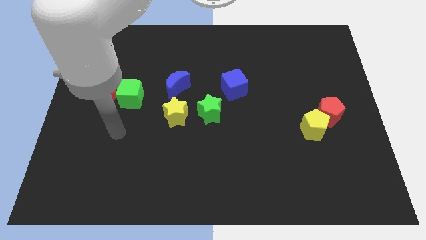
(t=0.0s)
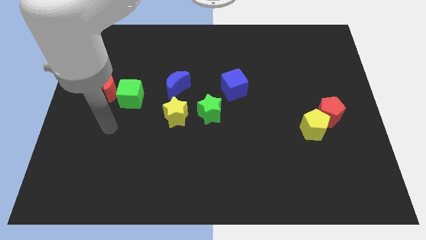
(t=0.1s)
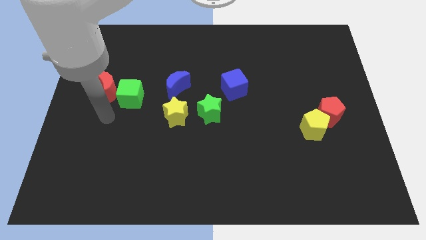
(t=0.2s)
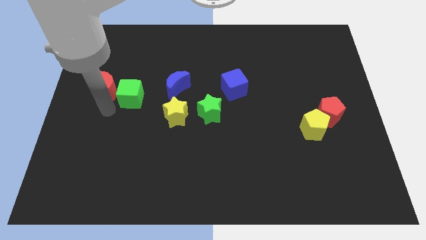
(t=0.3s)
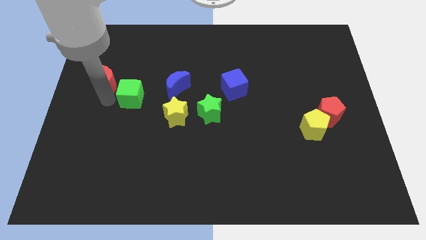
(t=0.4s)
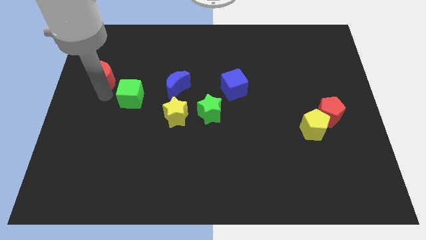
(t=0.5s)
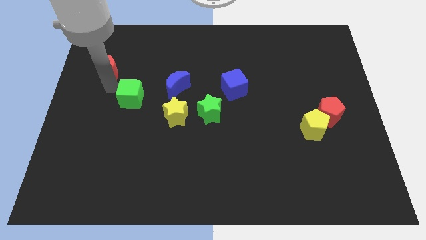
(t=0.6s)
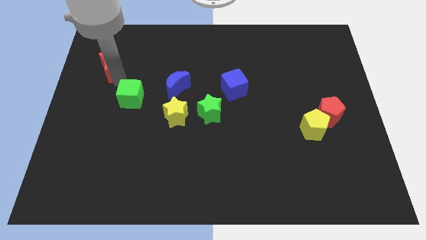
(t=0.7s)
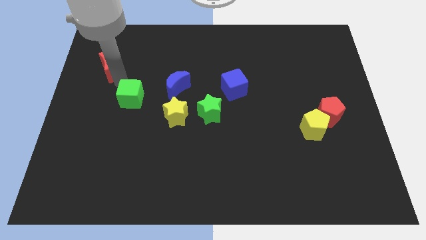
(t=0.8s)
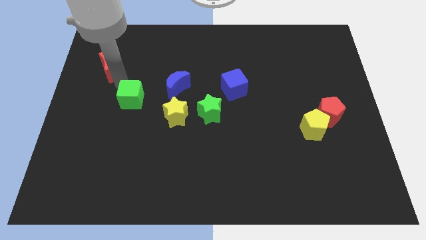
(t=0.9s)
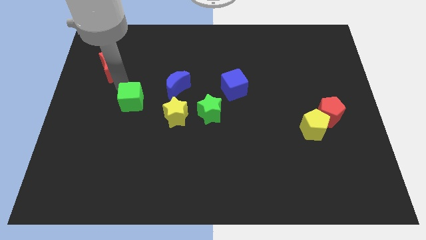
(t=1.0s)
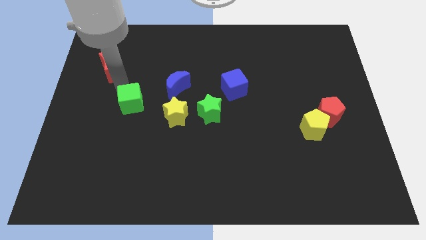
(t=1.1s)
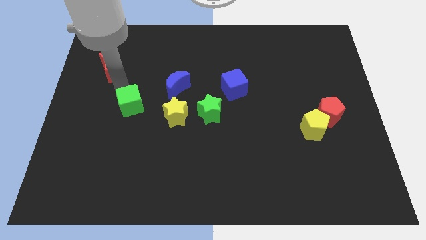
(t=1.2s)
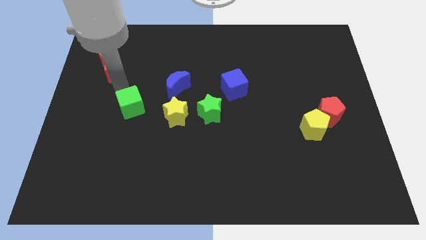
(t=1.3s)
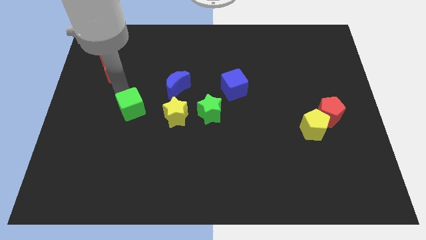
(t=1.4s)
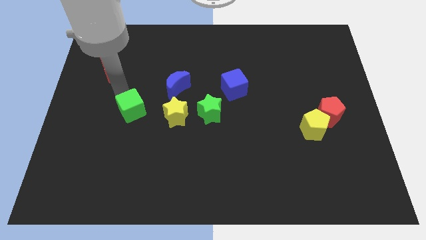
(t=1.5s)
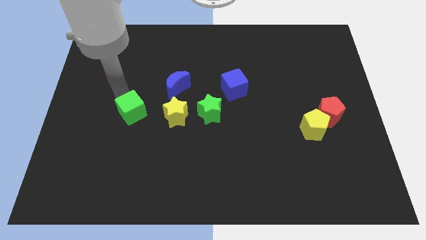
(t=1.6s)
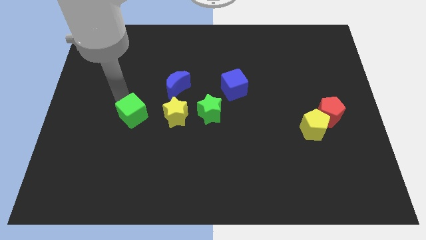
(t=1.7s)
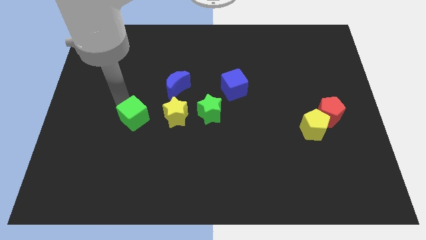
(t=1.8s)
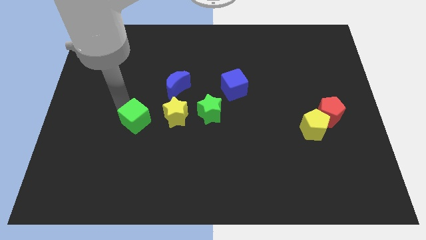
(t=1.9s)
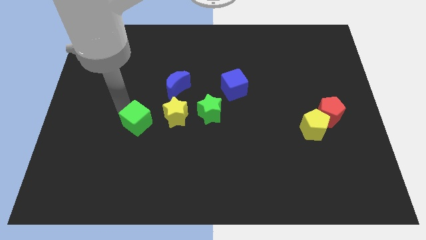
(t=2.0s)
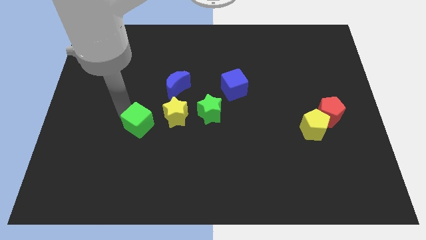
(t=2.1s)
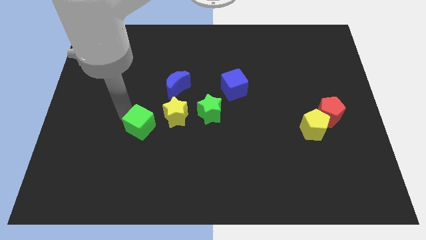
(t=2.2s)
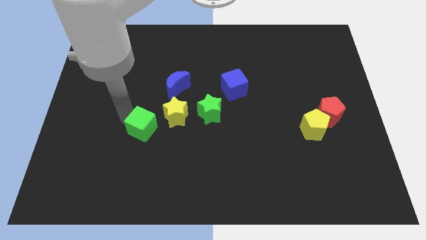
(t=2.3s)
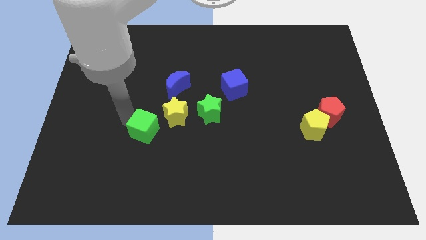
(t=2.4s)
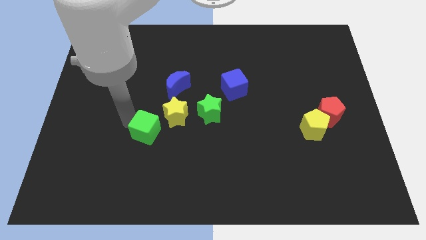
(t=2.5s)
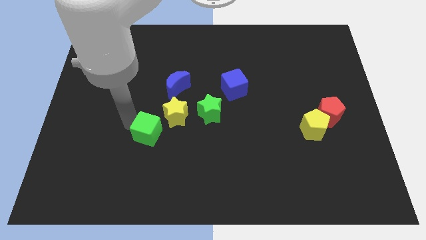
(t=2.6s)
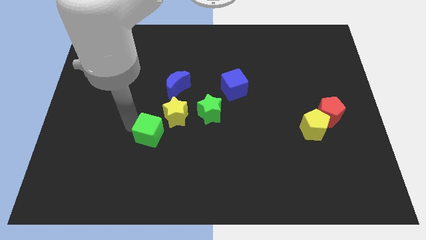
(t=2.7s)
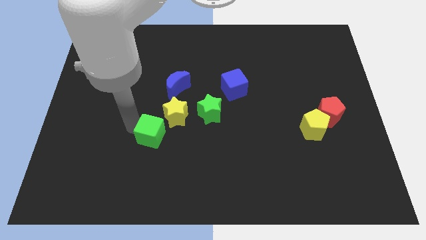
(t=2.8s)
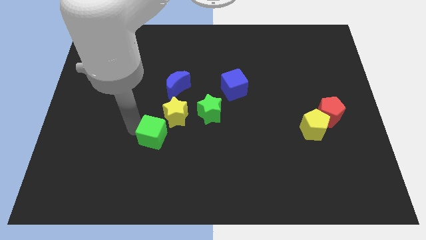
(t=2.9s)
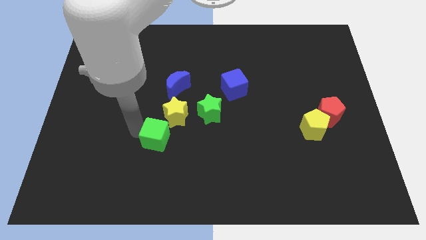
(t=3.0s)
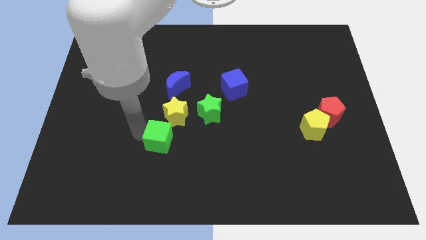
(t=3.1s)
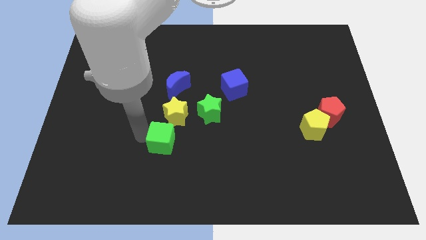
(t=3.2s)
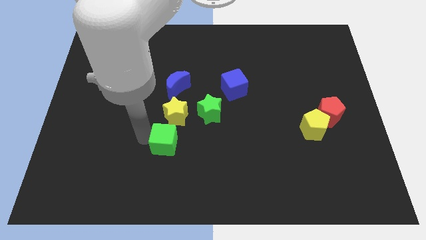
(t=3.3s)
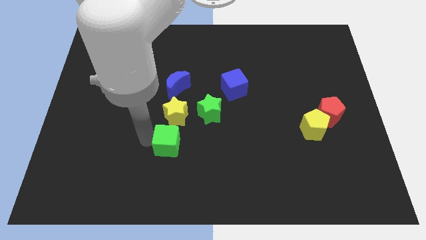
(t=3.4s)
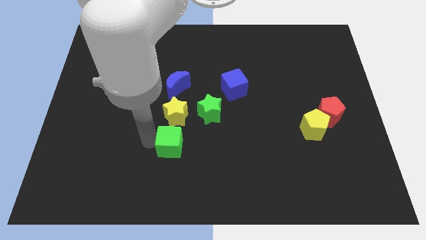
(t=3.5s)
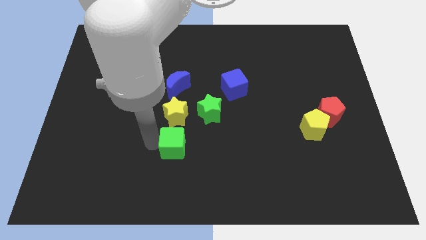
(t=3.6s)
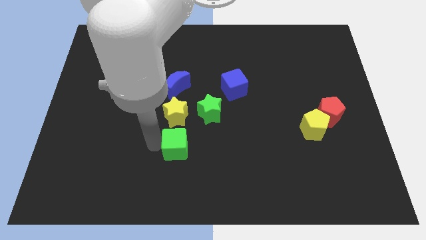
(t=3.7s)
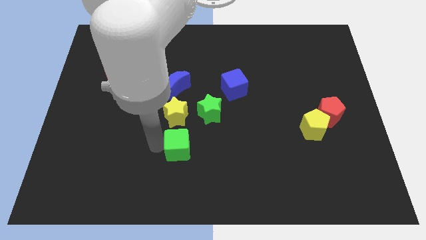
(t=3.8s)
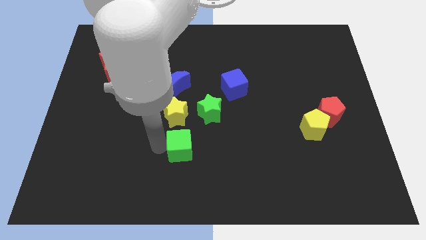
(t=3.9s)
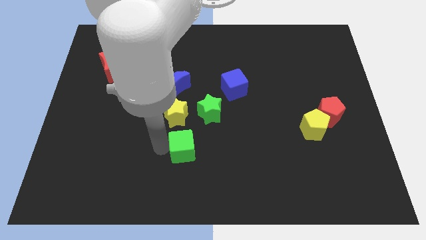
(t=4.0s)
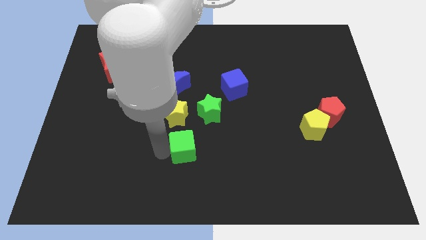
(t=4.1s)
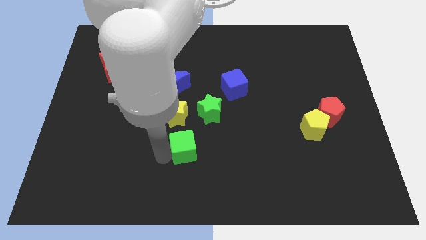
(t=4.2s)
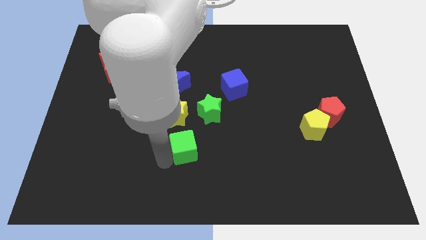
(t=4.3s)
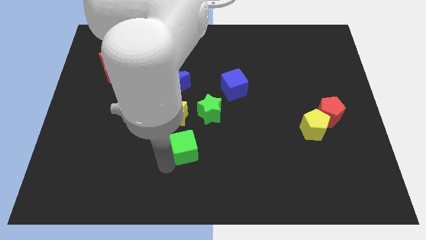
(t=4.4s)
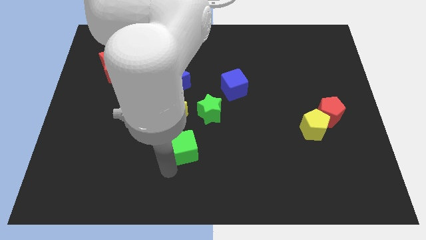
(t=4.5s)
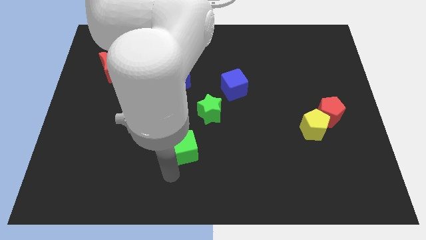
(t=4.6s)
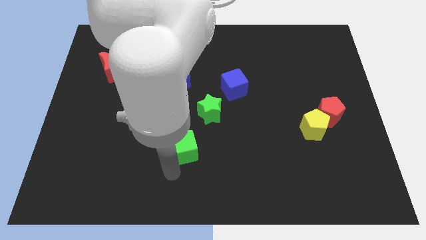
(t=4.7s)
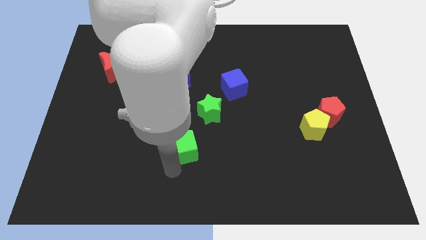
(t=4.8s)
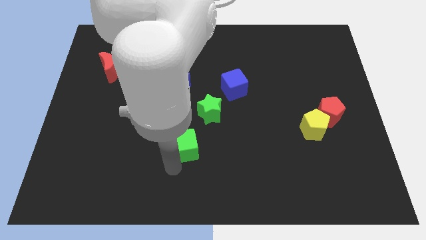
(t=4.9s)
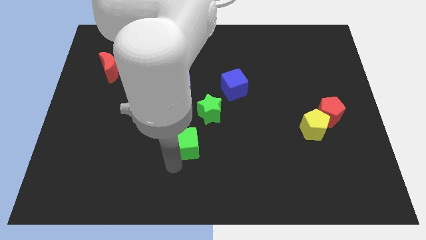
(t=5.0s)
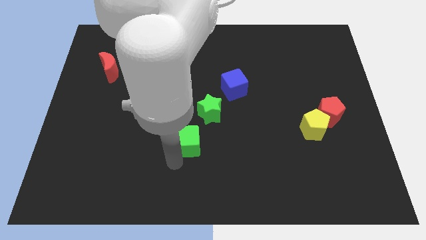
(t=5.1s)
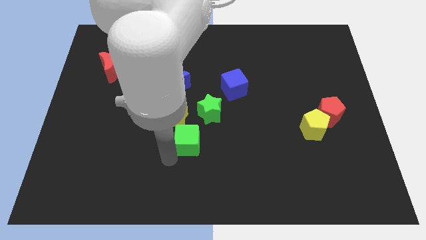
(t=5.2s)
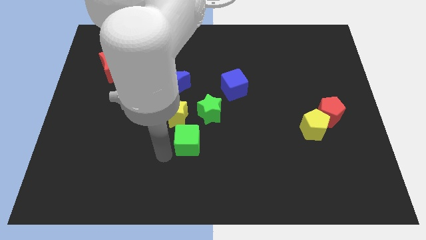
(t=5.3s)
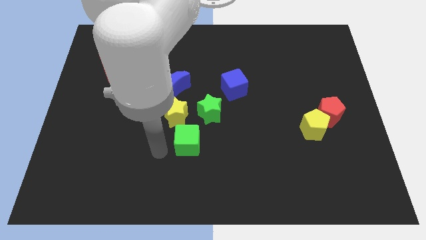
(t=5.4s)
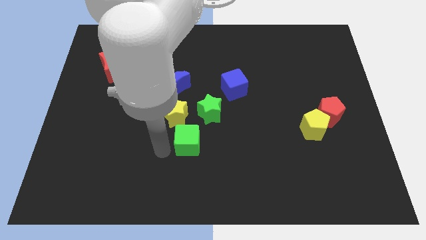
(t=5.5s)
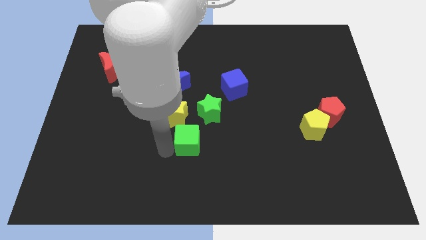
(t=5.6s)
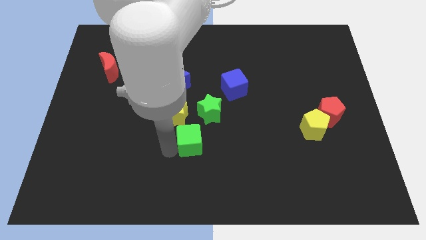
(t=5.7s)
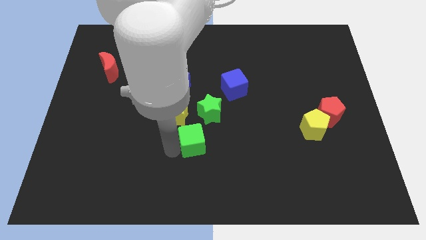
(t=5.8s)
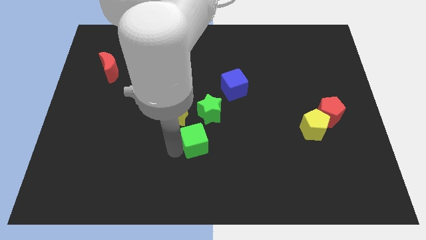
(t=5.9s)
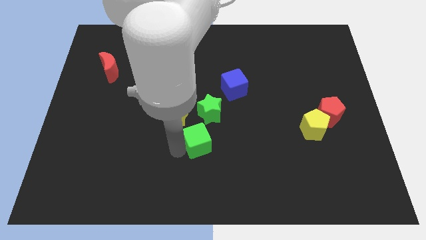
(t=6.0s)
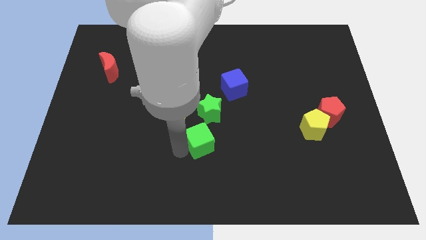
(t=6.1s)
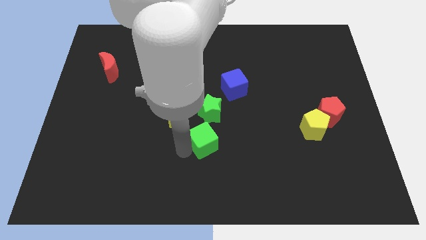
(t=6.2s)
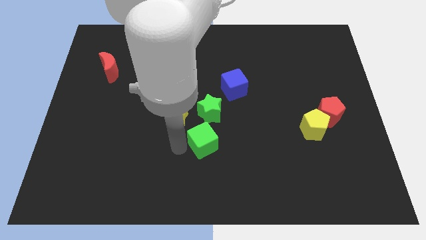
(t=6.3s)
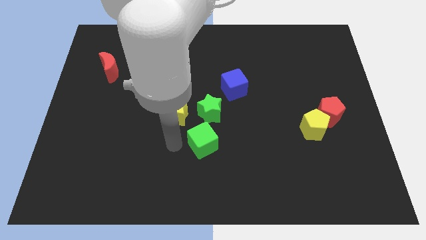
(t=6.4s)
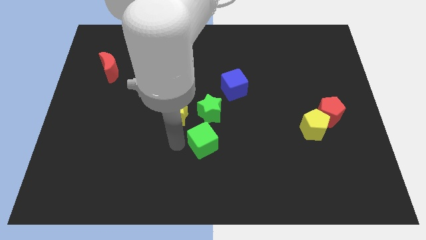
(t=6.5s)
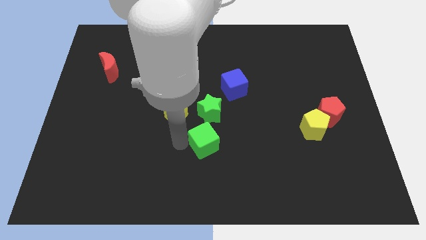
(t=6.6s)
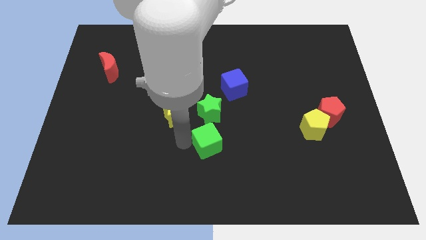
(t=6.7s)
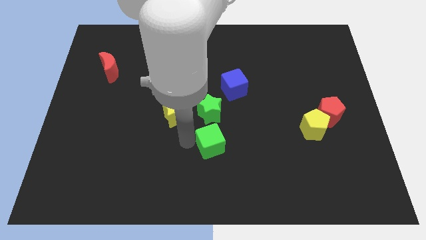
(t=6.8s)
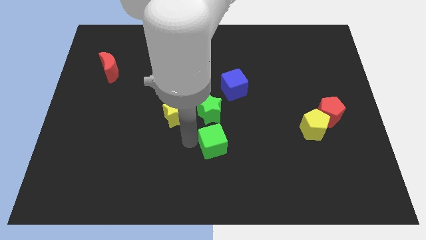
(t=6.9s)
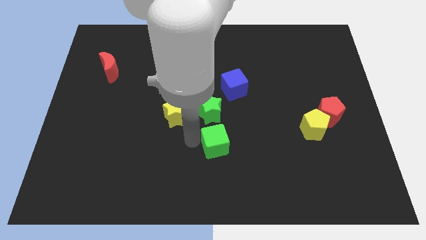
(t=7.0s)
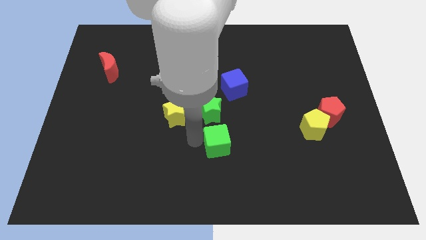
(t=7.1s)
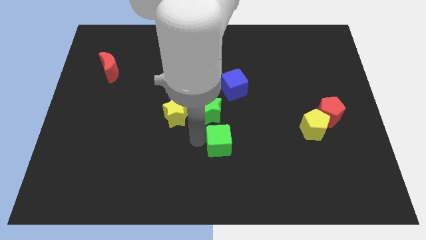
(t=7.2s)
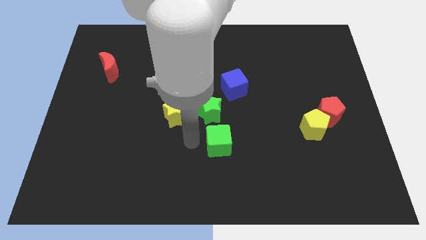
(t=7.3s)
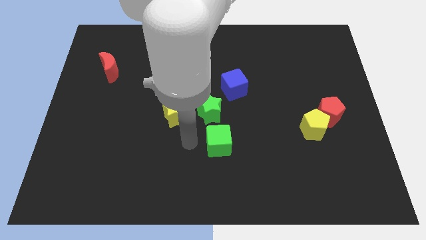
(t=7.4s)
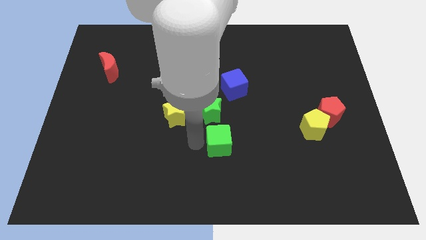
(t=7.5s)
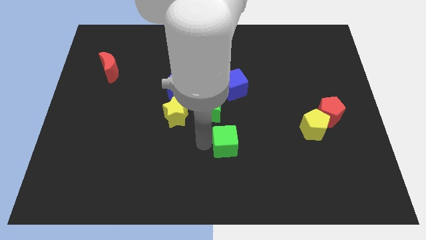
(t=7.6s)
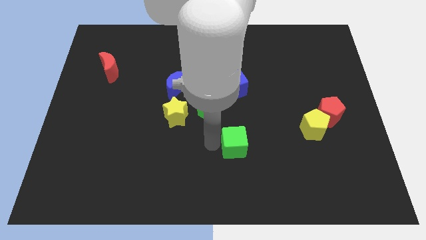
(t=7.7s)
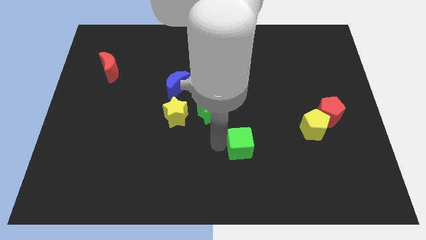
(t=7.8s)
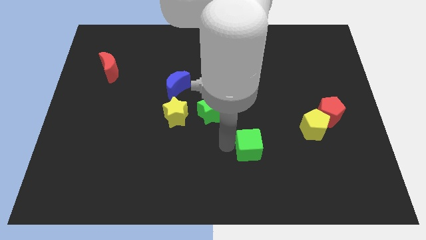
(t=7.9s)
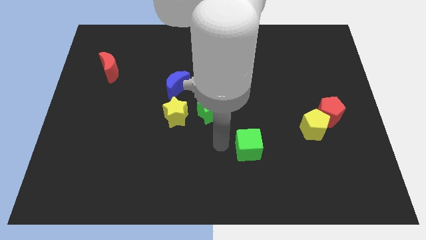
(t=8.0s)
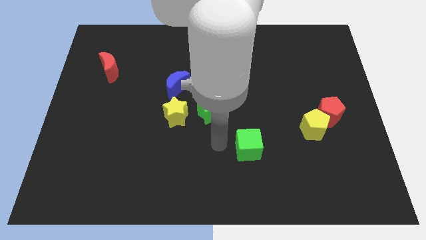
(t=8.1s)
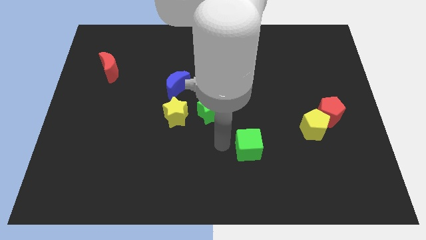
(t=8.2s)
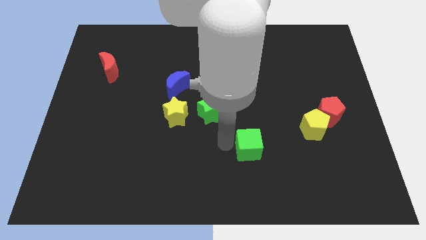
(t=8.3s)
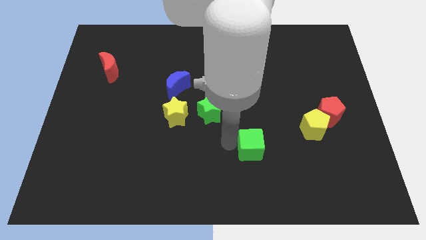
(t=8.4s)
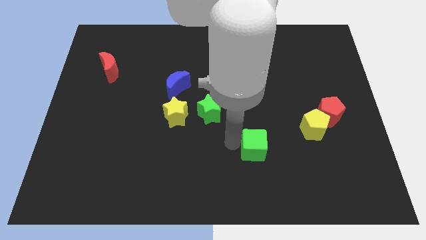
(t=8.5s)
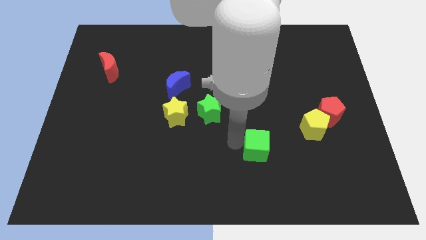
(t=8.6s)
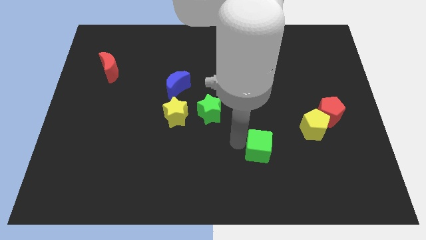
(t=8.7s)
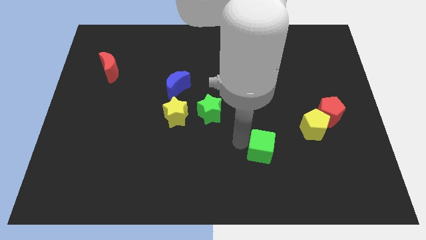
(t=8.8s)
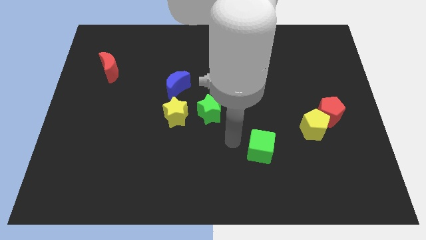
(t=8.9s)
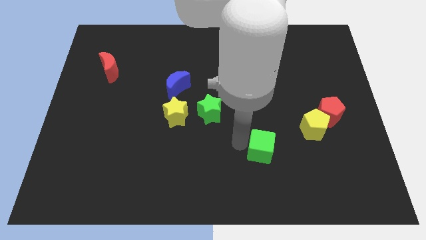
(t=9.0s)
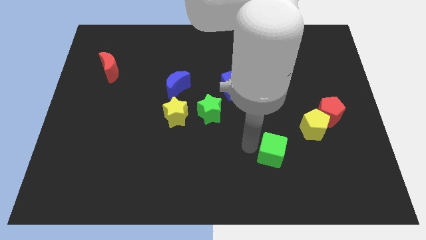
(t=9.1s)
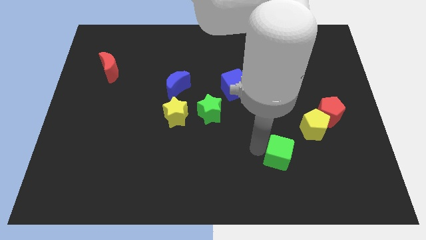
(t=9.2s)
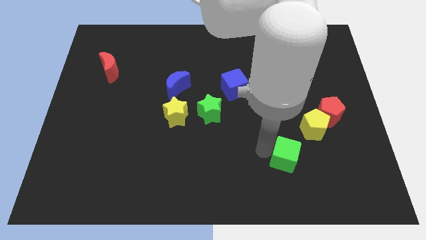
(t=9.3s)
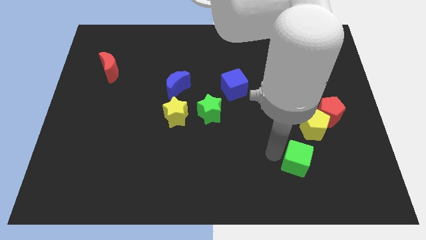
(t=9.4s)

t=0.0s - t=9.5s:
put the green cube below the yellow pentagon
